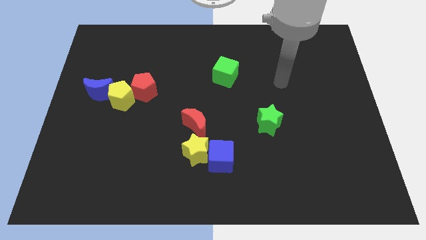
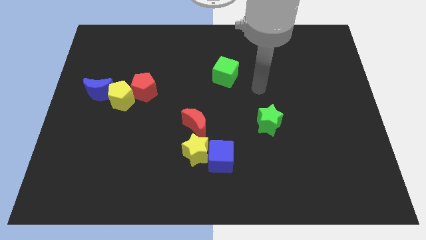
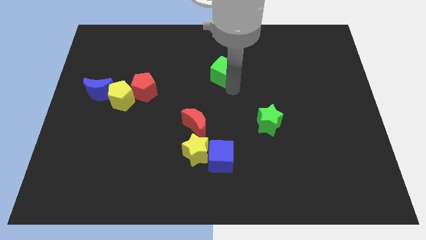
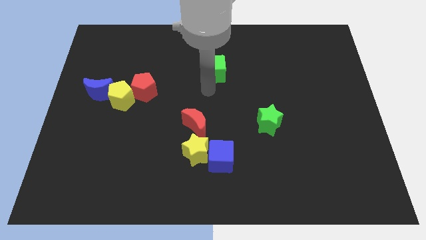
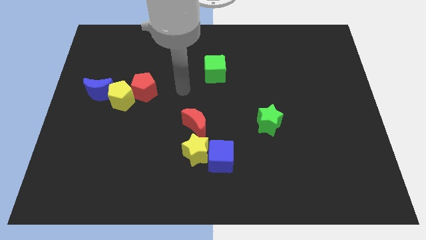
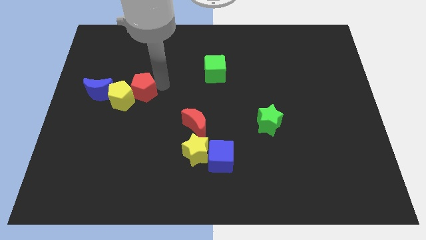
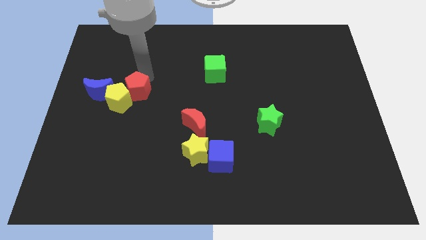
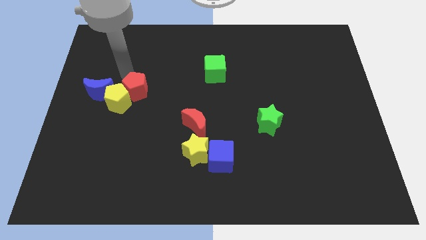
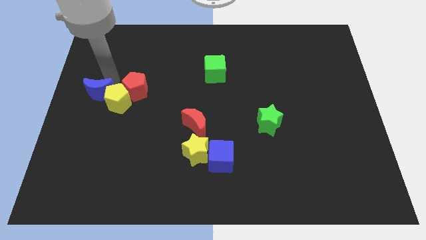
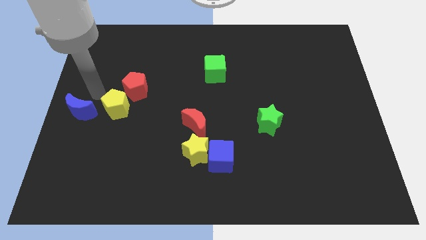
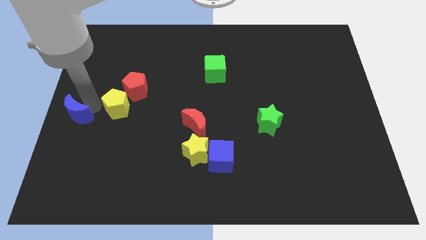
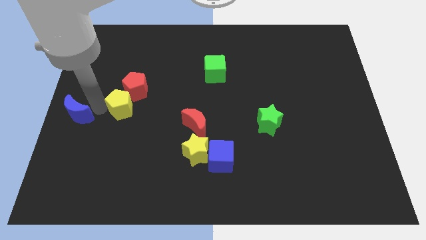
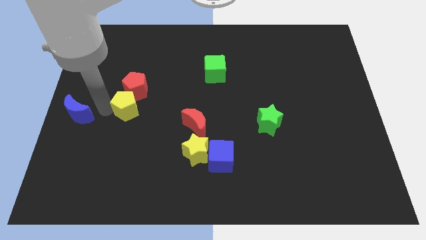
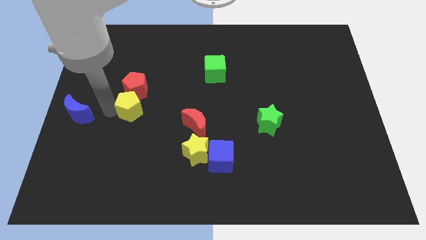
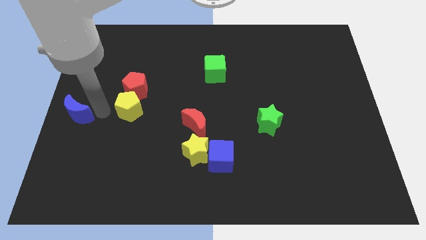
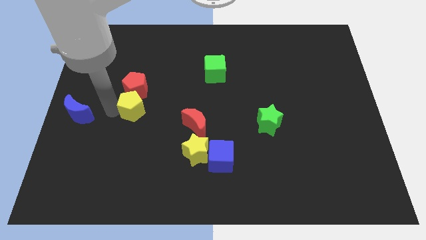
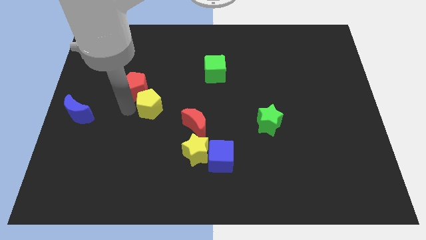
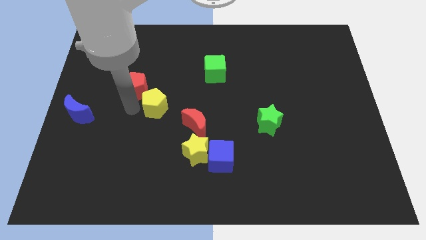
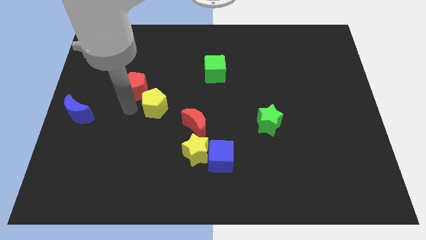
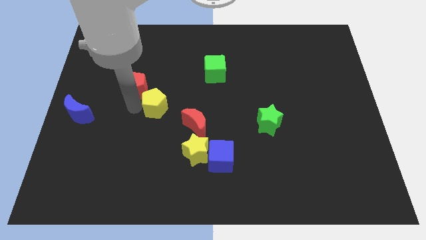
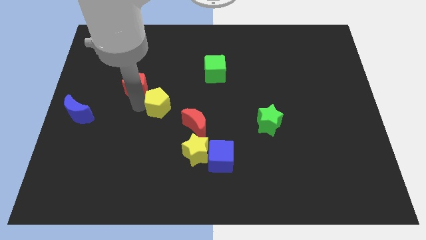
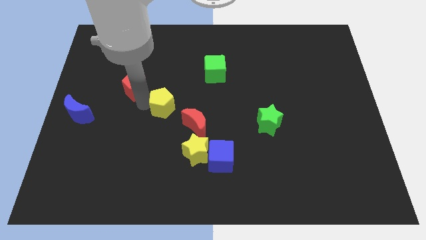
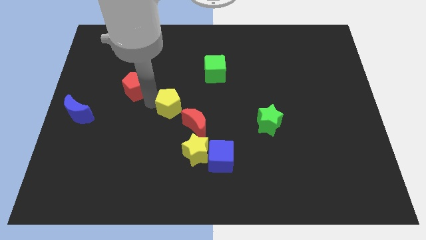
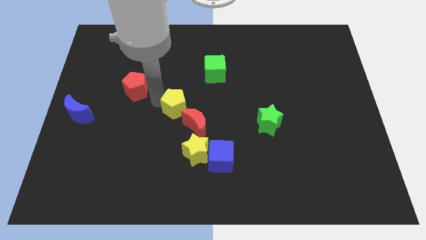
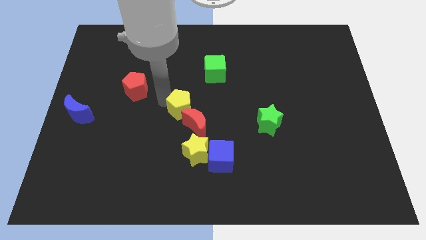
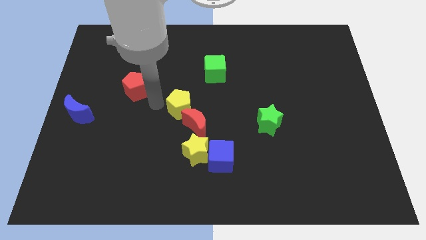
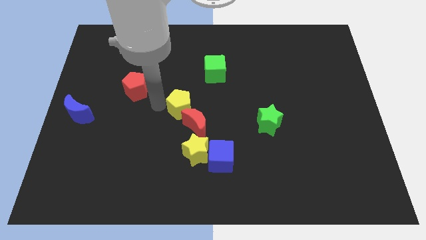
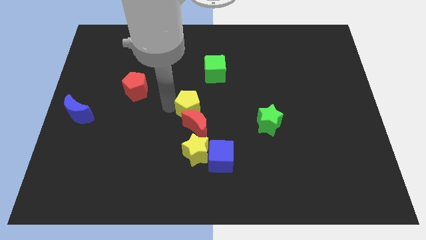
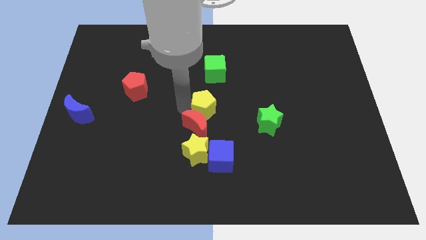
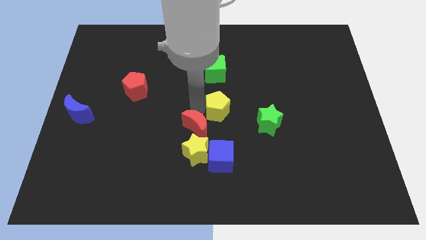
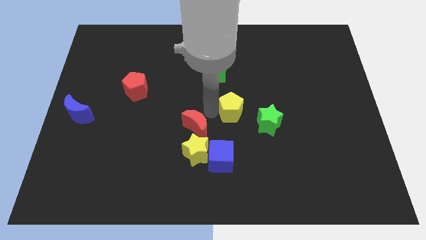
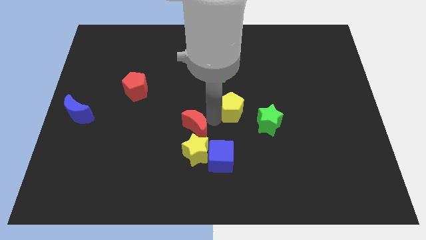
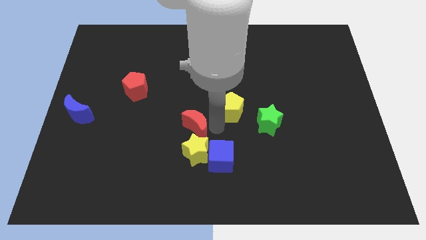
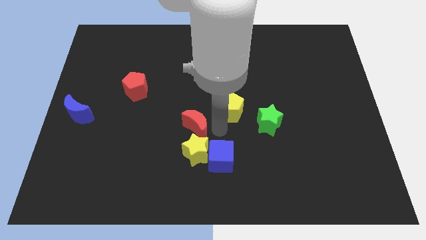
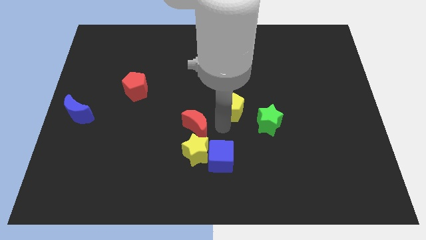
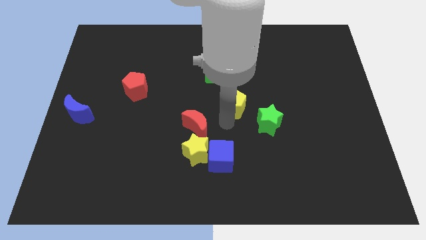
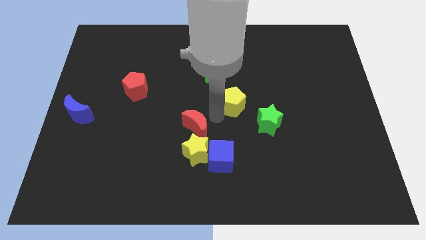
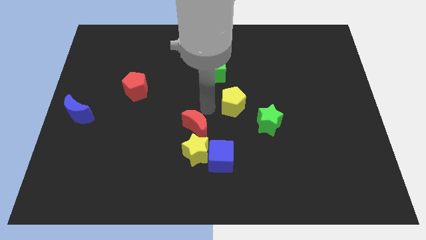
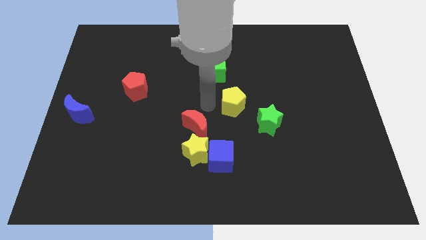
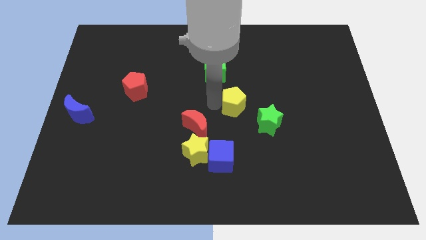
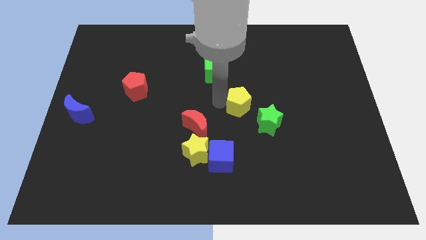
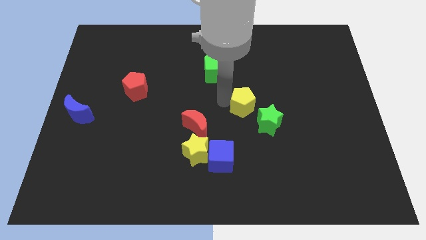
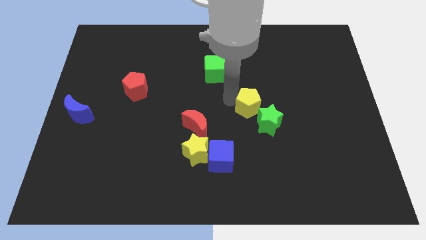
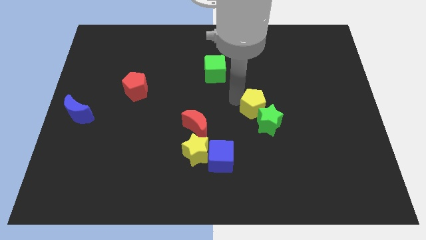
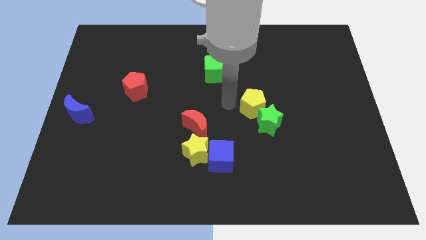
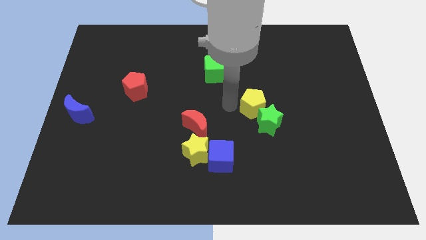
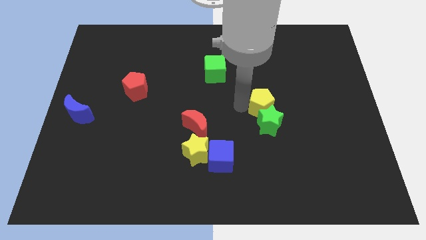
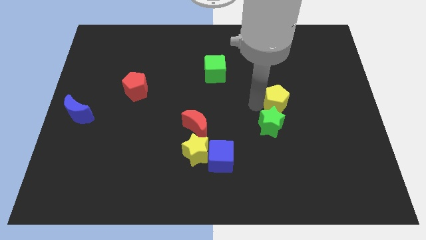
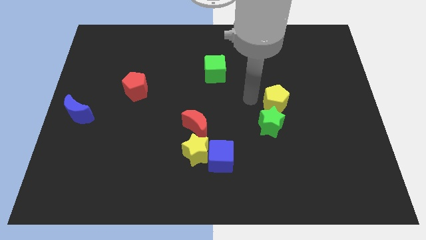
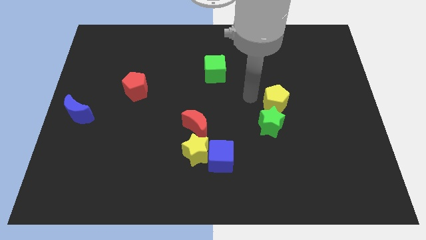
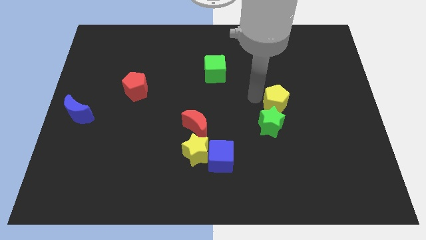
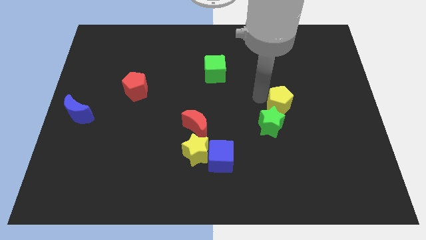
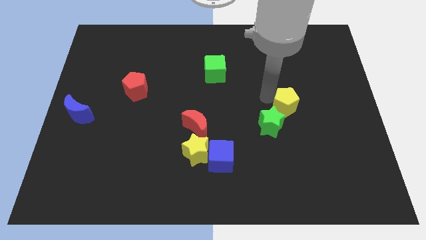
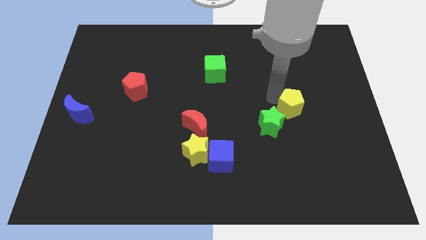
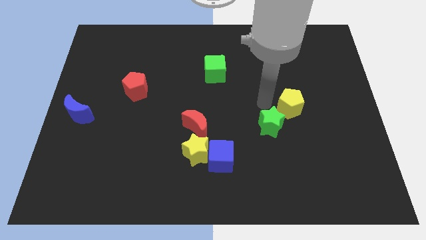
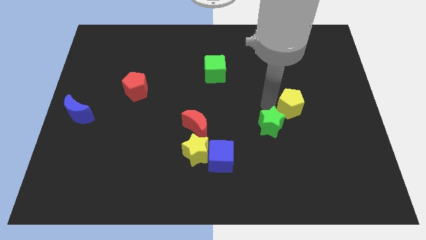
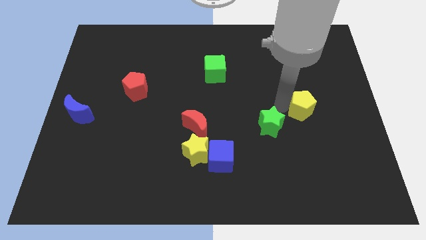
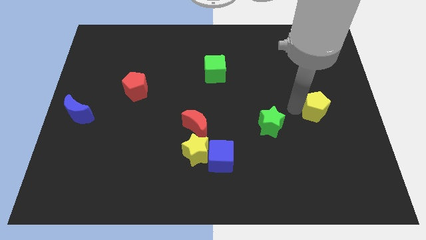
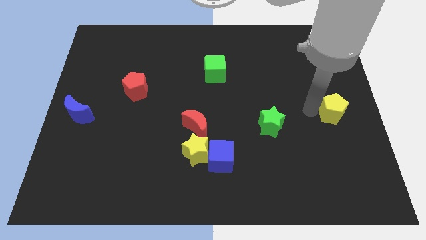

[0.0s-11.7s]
put the yellow pentagon to the right side of the board

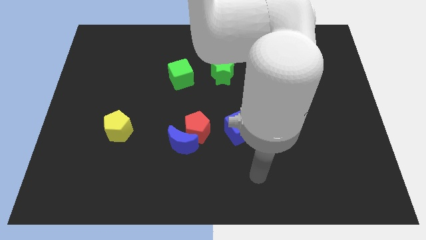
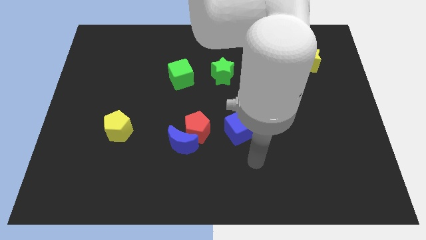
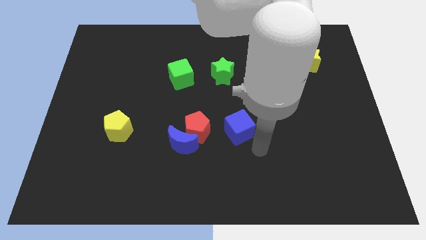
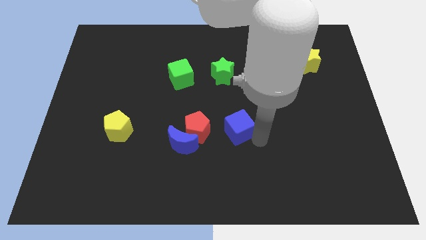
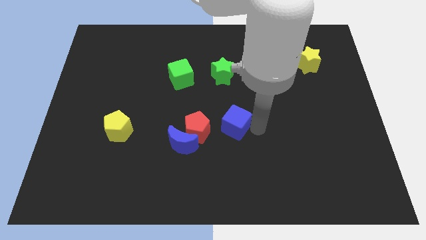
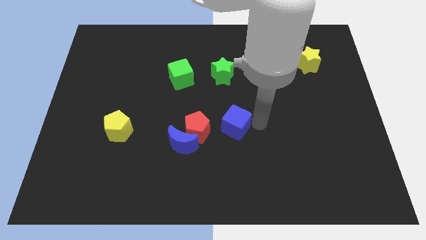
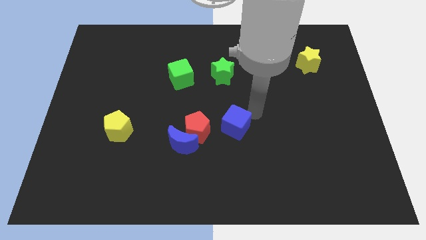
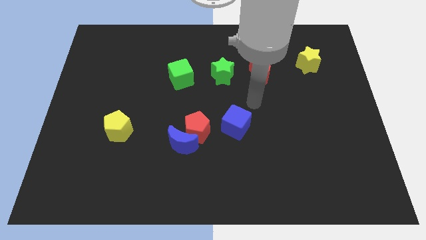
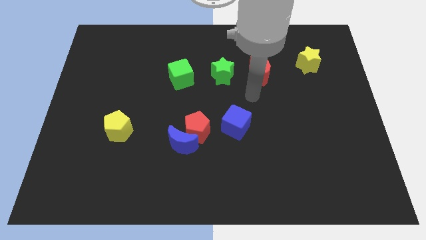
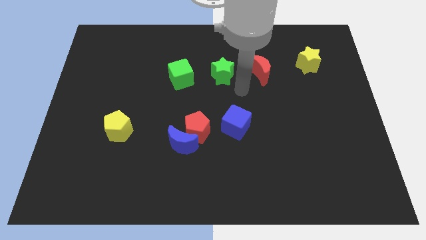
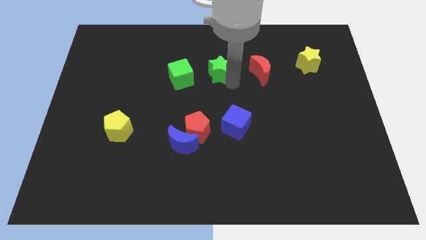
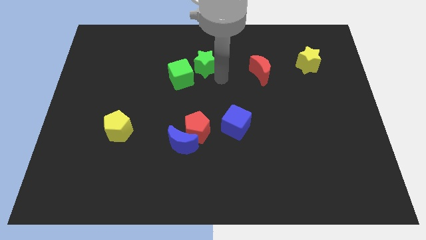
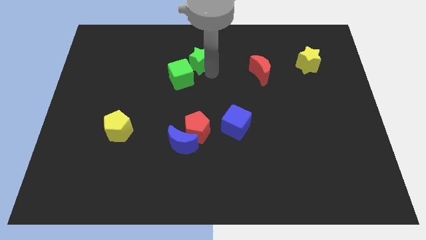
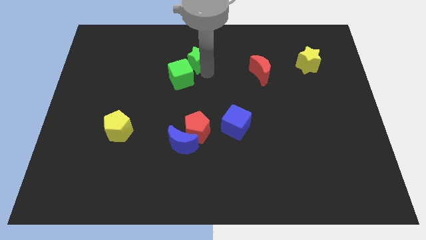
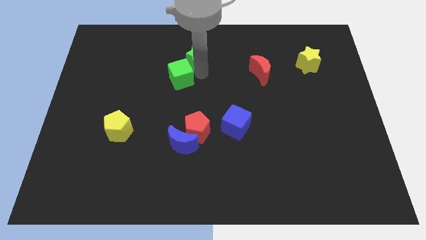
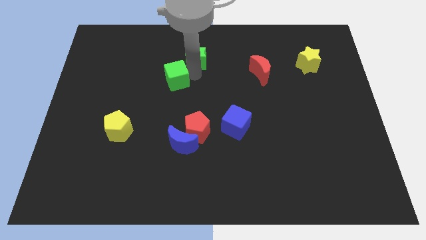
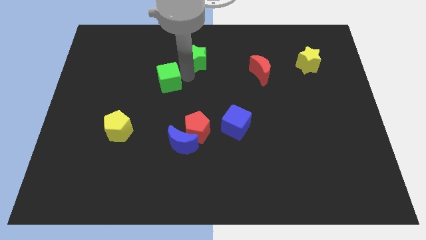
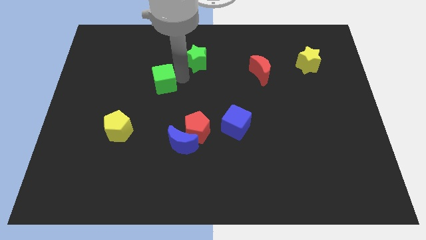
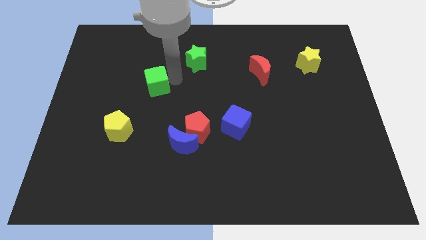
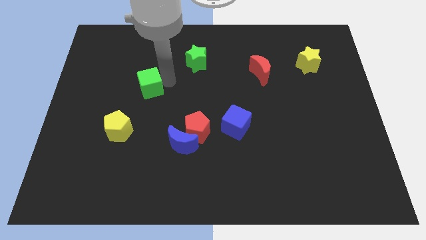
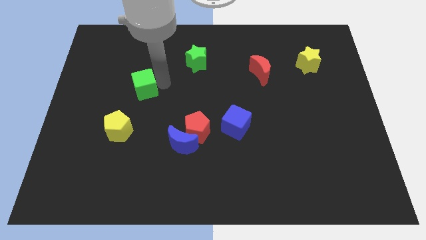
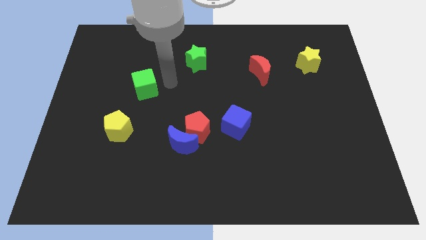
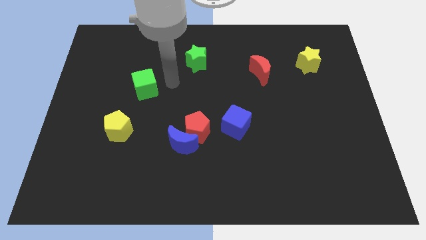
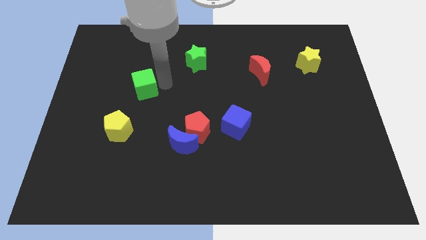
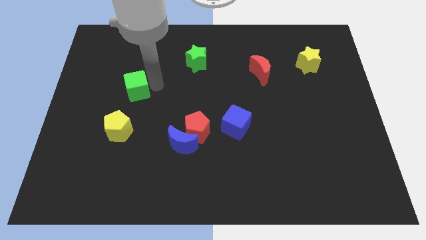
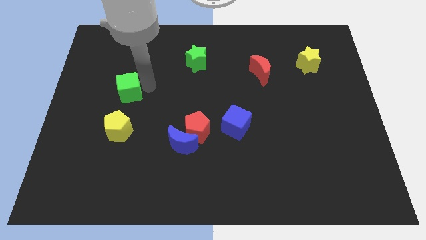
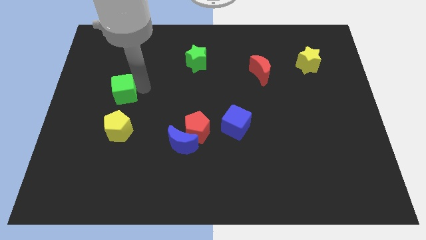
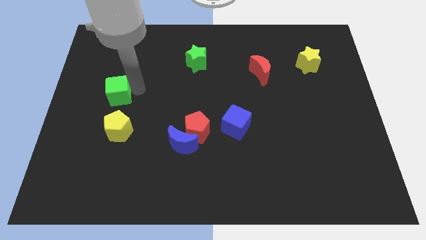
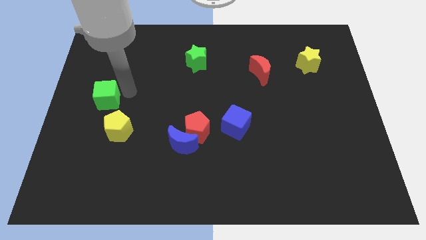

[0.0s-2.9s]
push the green cube to the left side
